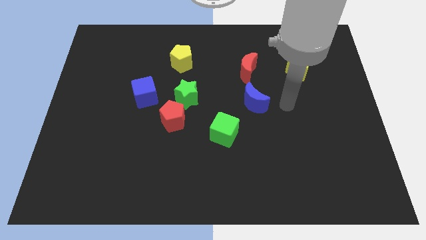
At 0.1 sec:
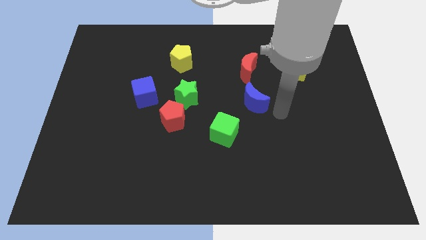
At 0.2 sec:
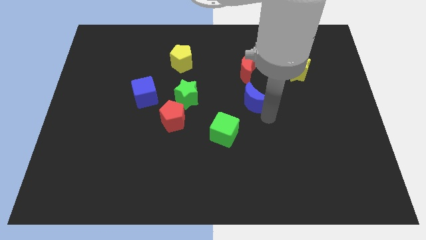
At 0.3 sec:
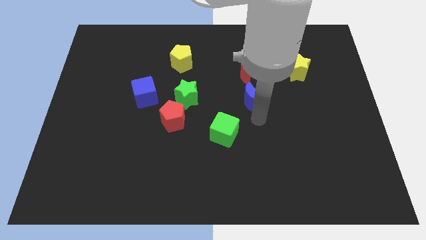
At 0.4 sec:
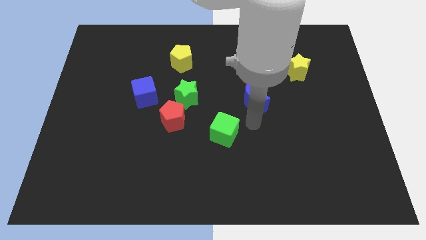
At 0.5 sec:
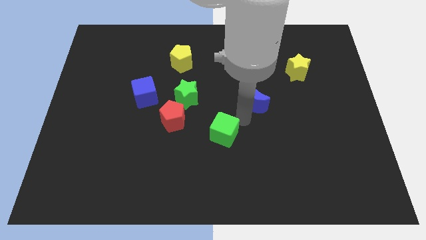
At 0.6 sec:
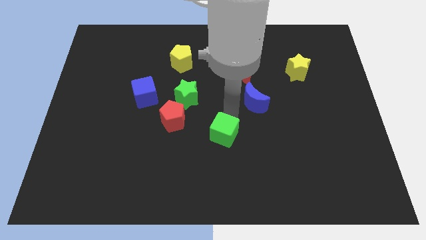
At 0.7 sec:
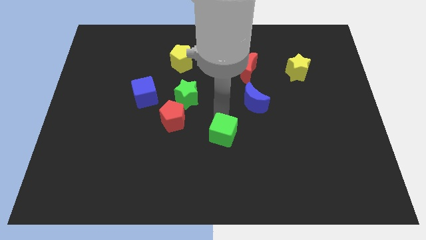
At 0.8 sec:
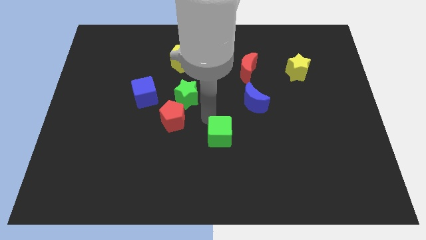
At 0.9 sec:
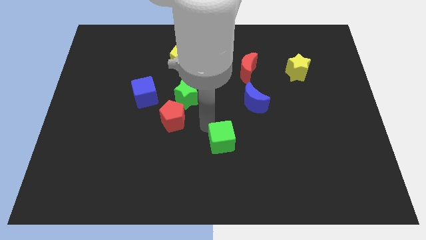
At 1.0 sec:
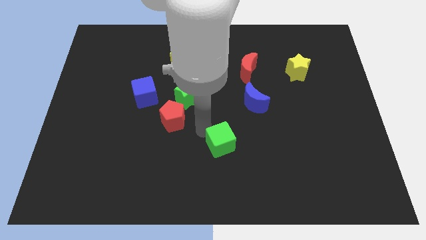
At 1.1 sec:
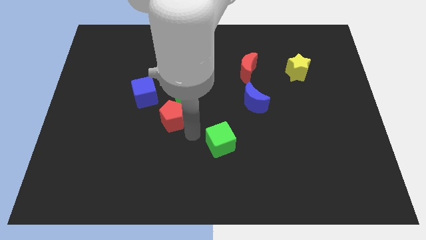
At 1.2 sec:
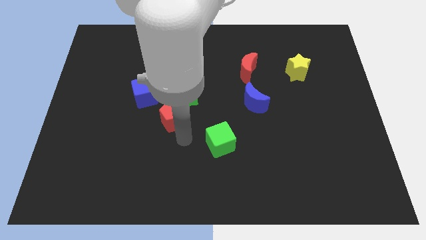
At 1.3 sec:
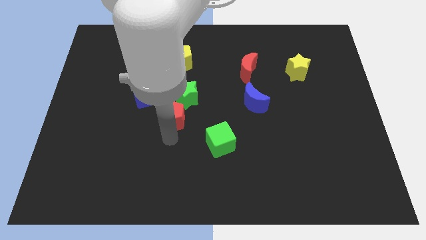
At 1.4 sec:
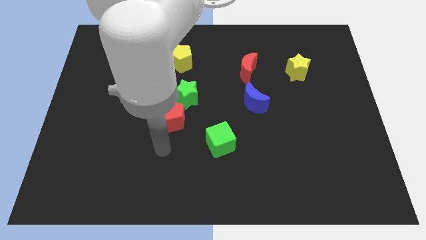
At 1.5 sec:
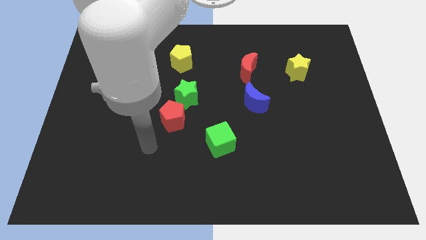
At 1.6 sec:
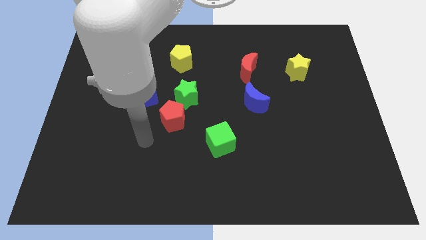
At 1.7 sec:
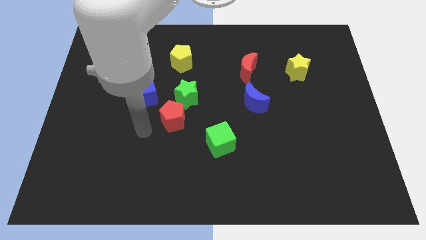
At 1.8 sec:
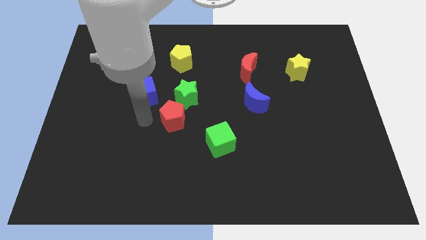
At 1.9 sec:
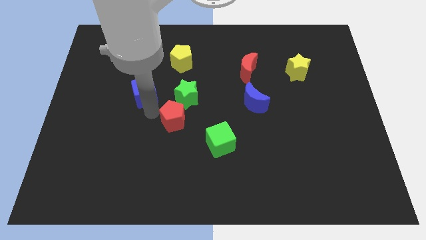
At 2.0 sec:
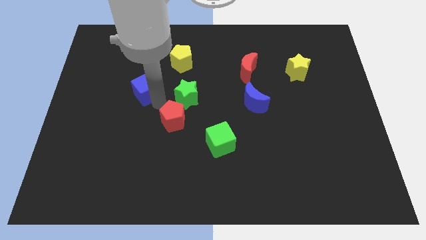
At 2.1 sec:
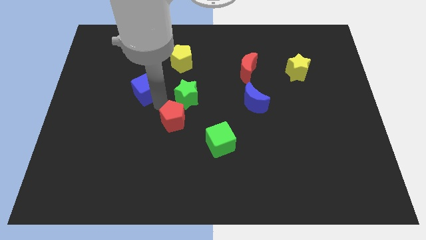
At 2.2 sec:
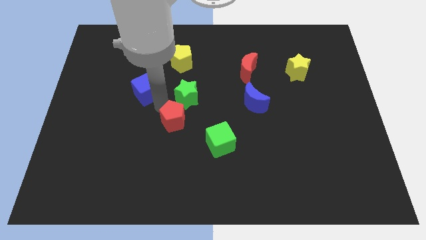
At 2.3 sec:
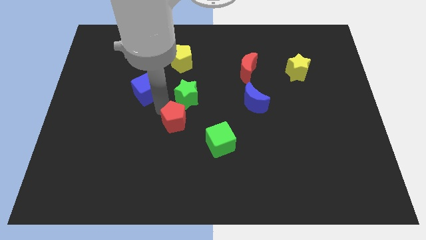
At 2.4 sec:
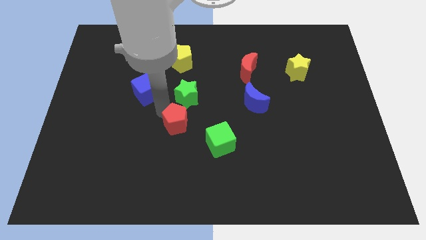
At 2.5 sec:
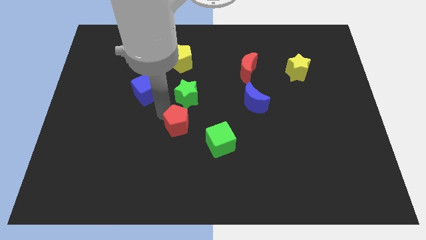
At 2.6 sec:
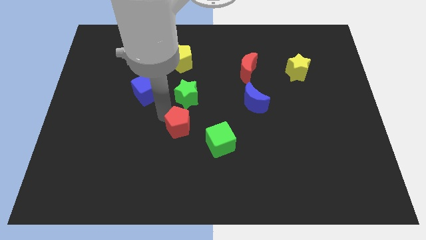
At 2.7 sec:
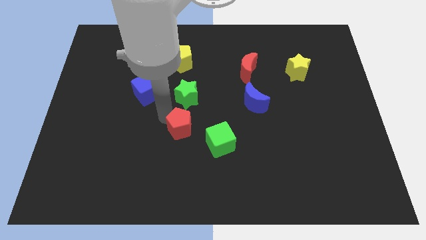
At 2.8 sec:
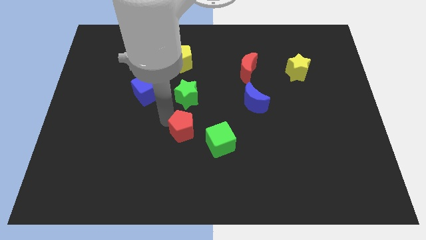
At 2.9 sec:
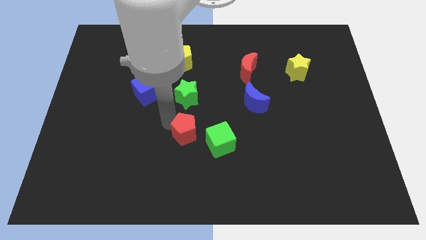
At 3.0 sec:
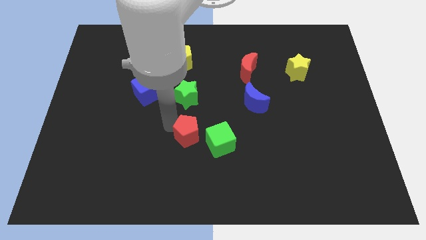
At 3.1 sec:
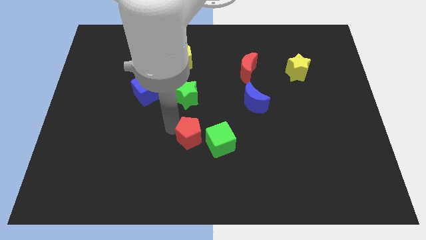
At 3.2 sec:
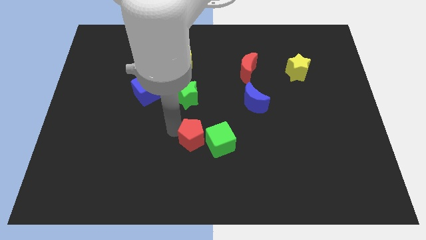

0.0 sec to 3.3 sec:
push the red pentagon somewhat down and then to the right

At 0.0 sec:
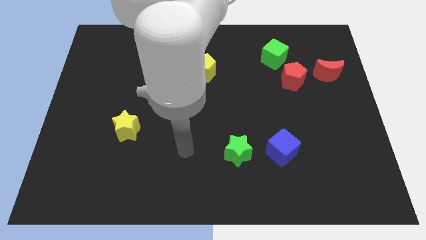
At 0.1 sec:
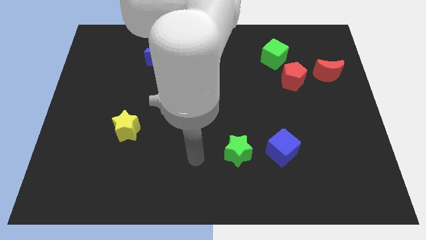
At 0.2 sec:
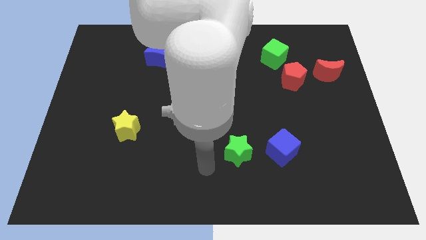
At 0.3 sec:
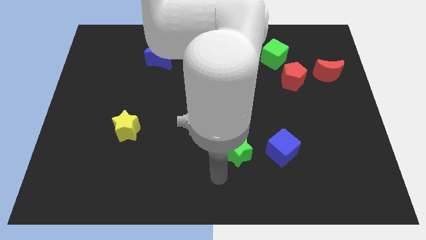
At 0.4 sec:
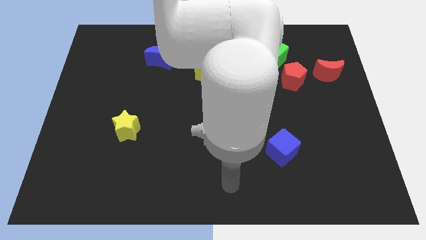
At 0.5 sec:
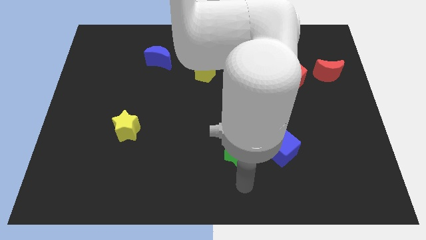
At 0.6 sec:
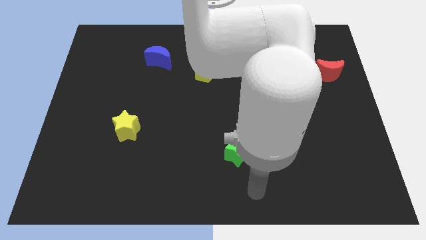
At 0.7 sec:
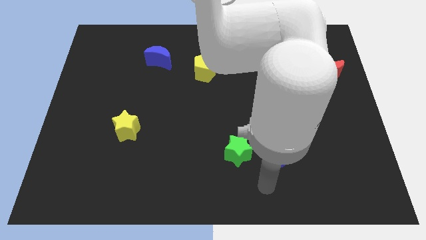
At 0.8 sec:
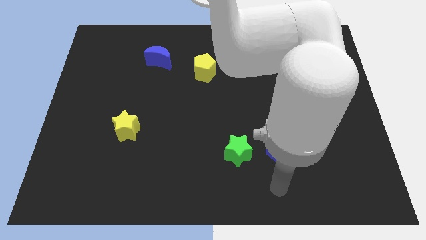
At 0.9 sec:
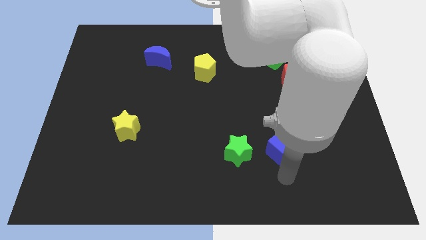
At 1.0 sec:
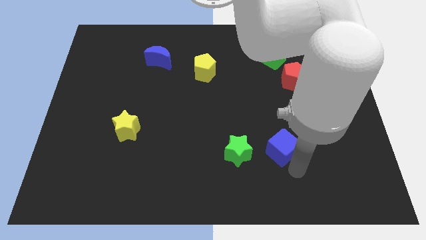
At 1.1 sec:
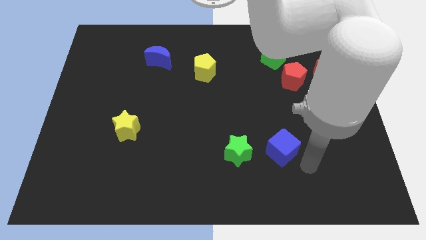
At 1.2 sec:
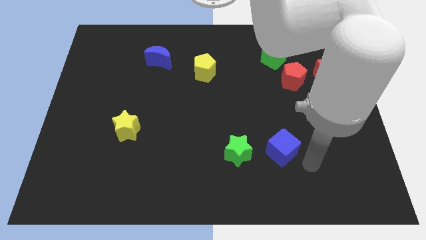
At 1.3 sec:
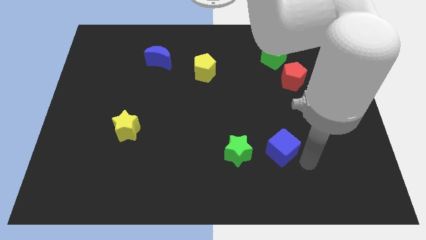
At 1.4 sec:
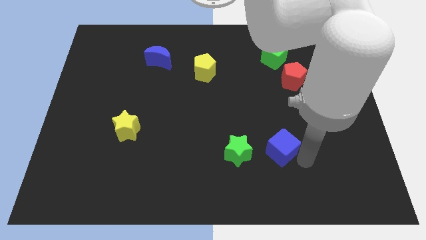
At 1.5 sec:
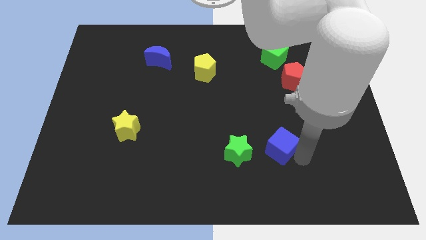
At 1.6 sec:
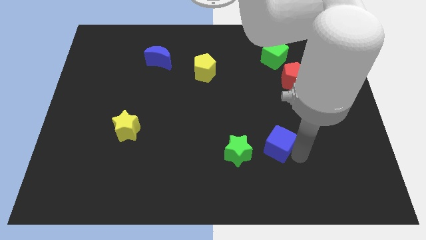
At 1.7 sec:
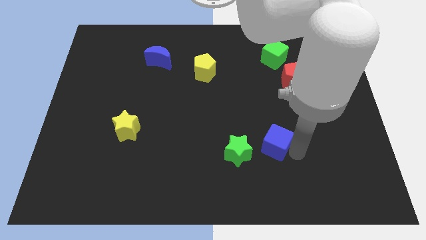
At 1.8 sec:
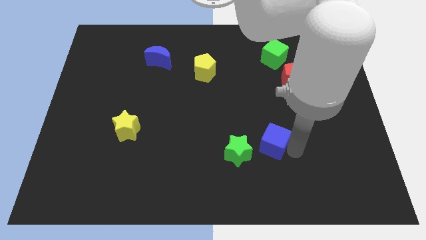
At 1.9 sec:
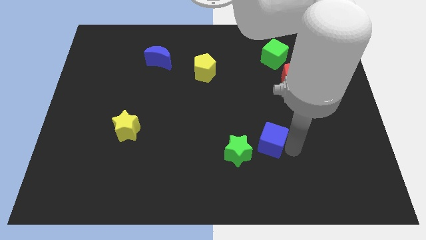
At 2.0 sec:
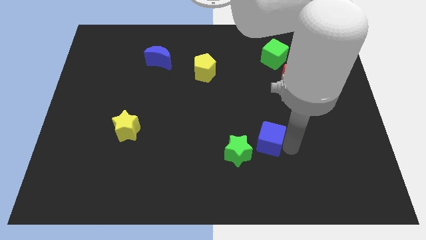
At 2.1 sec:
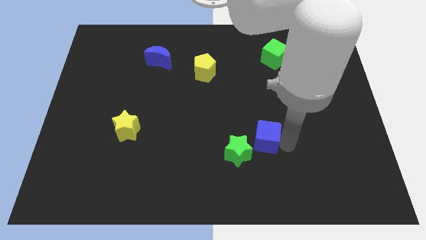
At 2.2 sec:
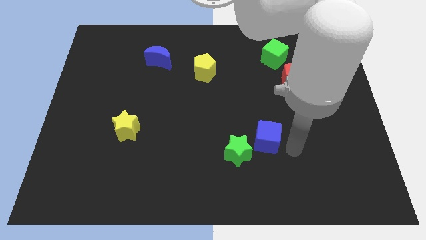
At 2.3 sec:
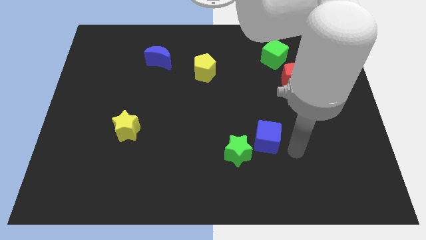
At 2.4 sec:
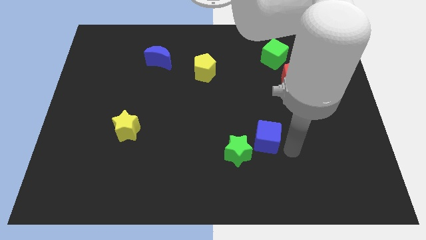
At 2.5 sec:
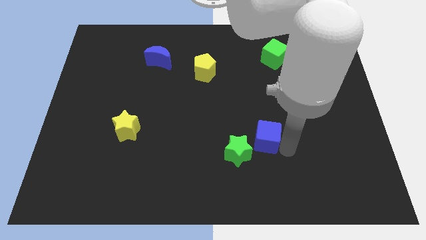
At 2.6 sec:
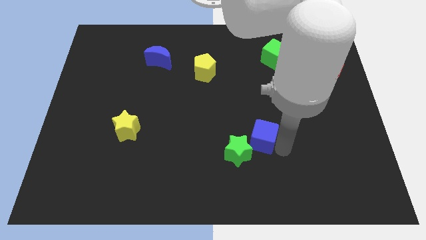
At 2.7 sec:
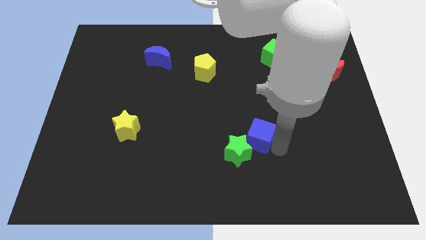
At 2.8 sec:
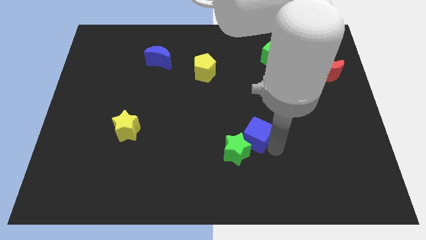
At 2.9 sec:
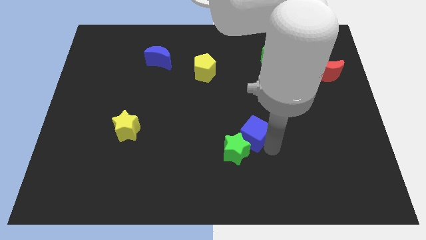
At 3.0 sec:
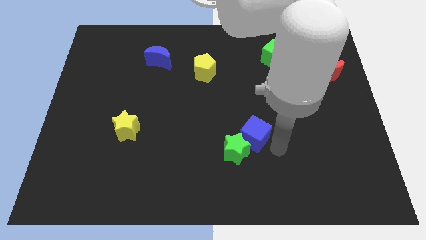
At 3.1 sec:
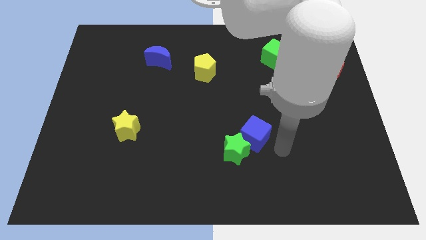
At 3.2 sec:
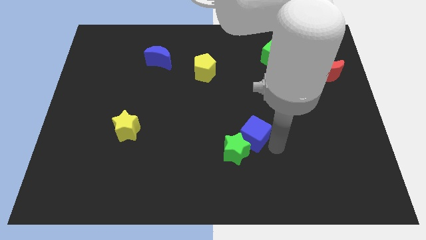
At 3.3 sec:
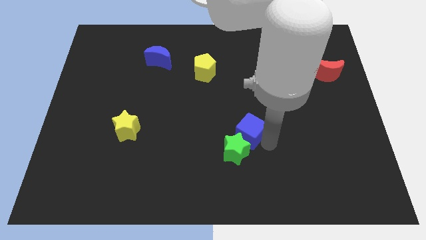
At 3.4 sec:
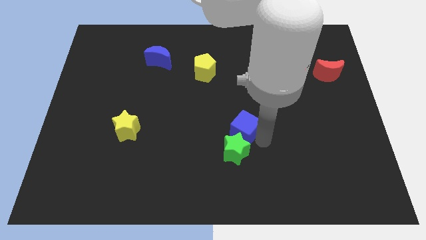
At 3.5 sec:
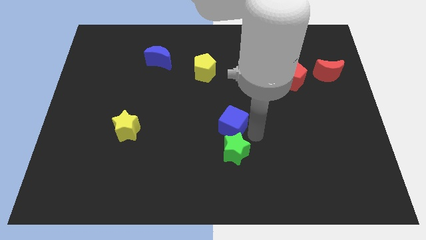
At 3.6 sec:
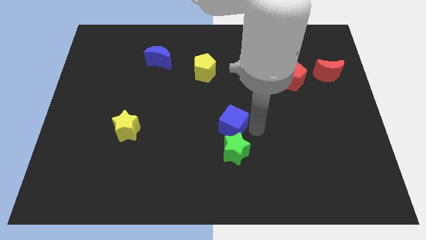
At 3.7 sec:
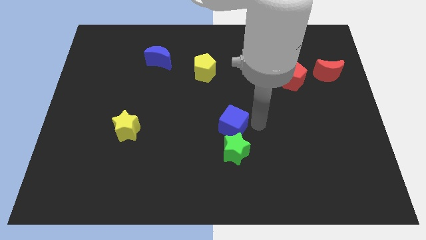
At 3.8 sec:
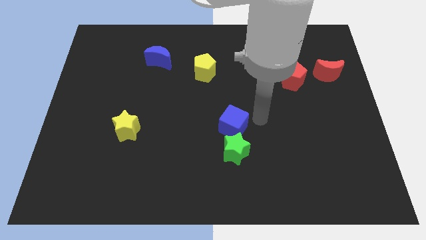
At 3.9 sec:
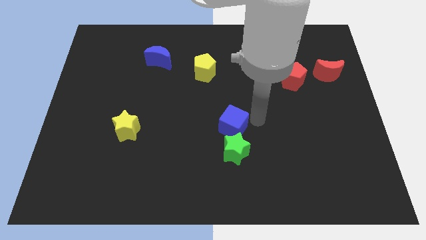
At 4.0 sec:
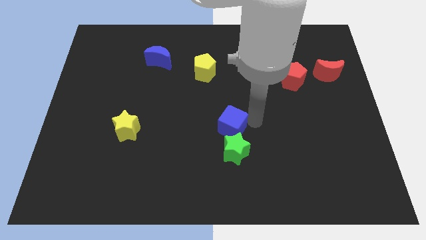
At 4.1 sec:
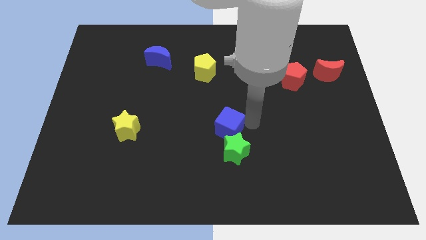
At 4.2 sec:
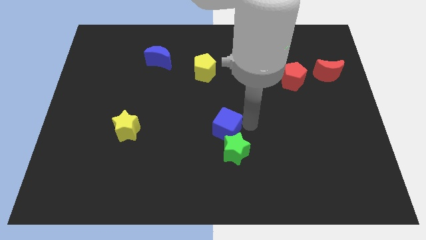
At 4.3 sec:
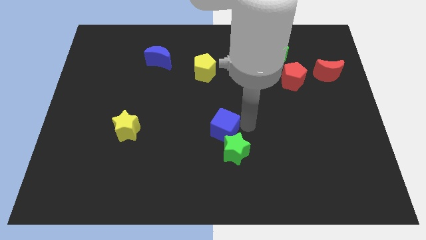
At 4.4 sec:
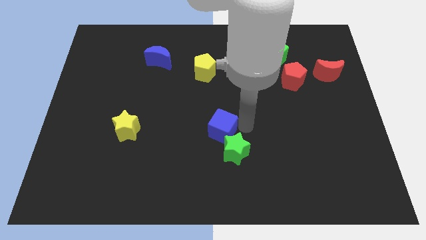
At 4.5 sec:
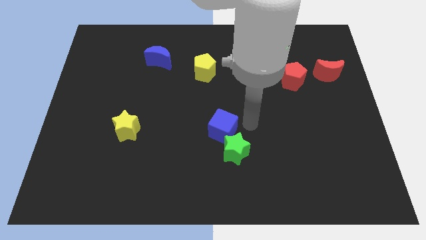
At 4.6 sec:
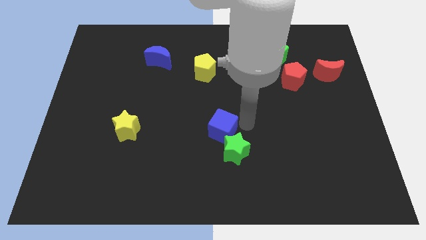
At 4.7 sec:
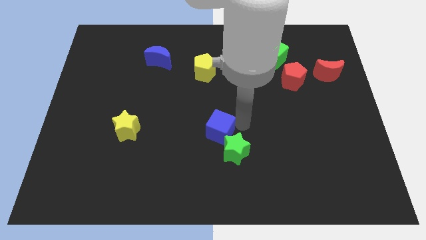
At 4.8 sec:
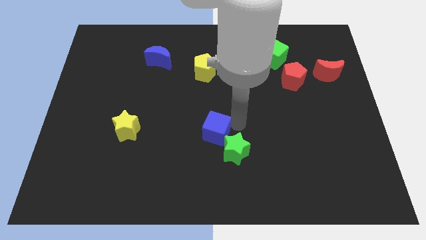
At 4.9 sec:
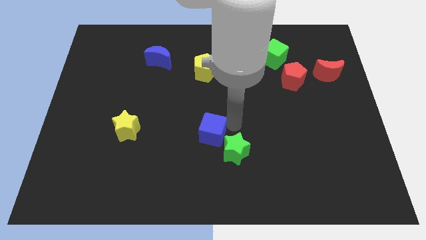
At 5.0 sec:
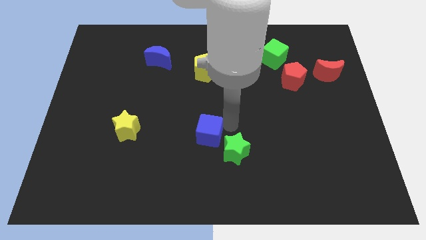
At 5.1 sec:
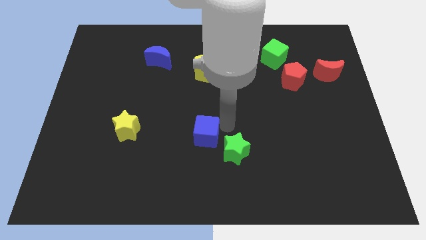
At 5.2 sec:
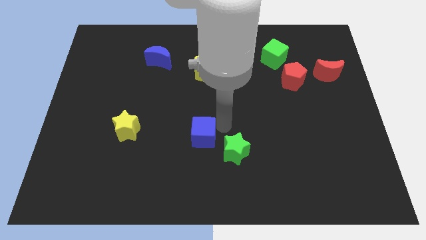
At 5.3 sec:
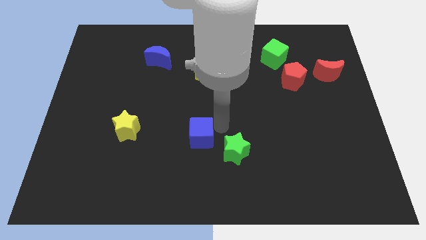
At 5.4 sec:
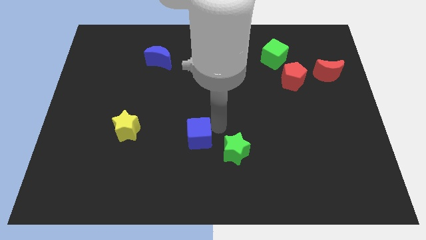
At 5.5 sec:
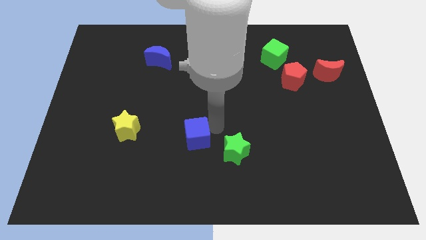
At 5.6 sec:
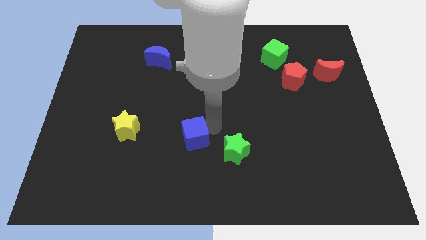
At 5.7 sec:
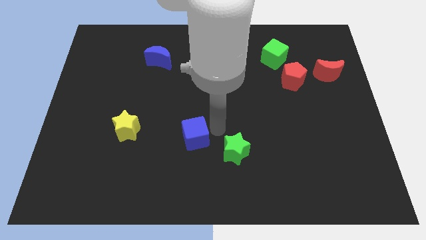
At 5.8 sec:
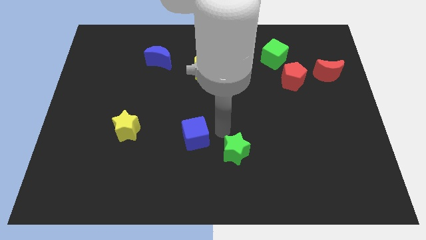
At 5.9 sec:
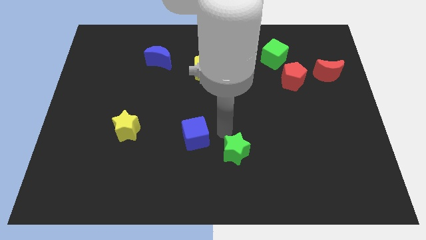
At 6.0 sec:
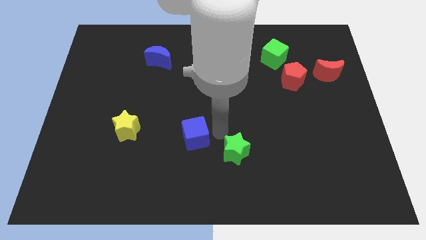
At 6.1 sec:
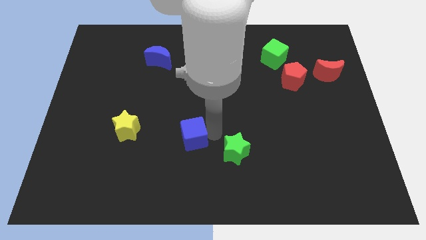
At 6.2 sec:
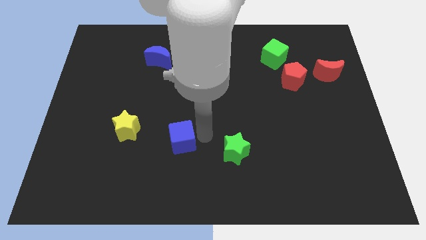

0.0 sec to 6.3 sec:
move the blue cube left
